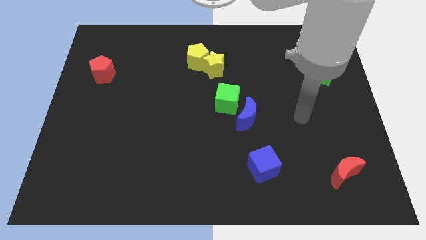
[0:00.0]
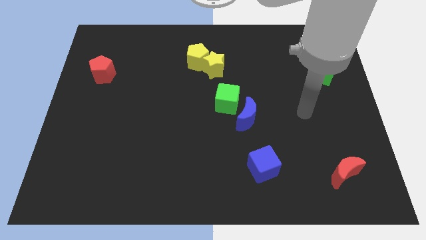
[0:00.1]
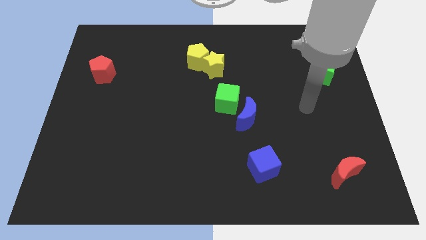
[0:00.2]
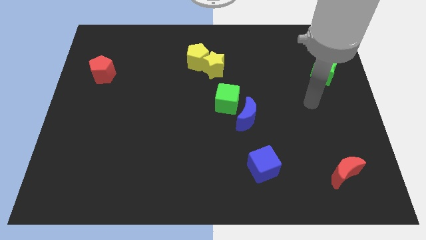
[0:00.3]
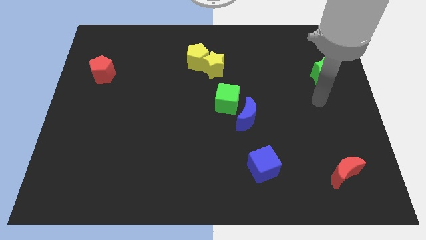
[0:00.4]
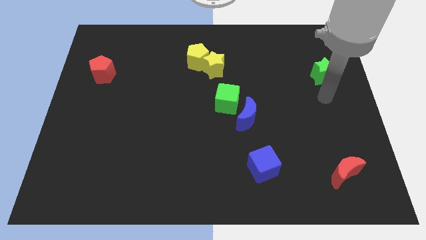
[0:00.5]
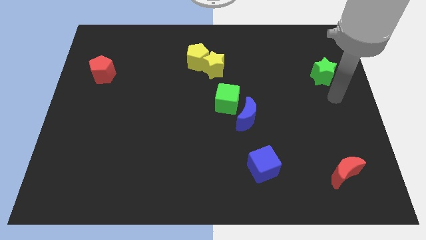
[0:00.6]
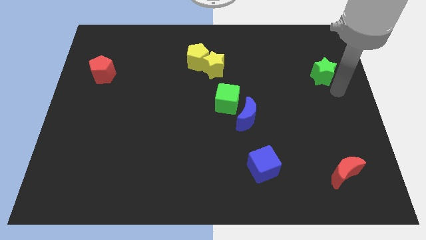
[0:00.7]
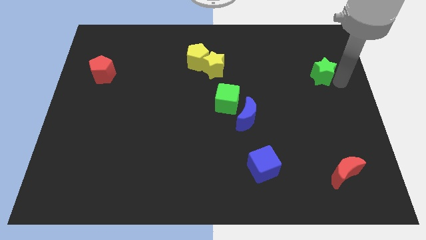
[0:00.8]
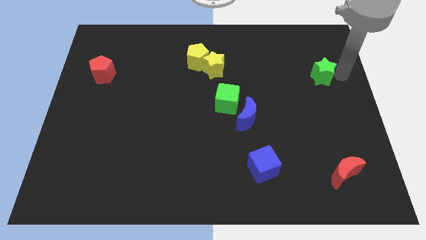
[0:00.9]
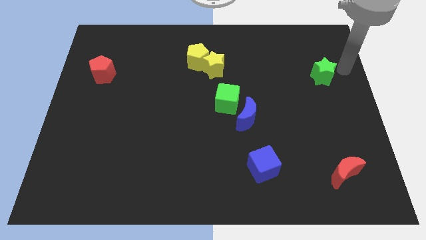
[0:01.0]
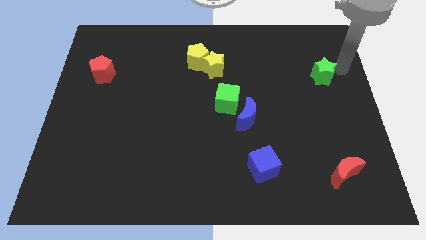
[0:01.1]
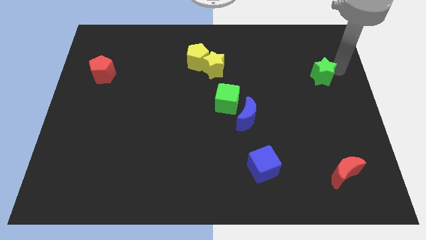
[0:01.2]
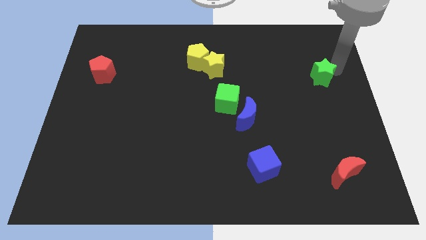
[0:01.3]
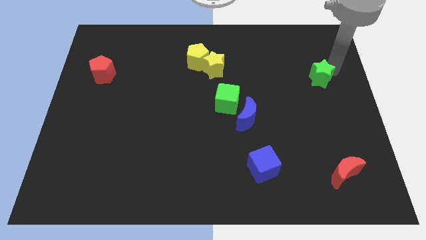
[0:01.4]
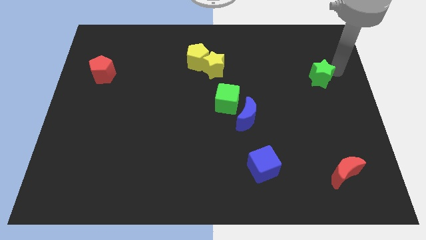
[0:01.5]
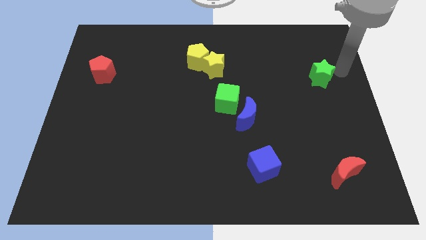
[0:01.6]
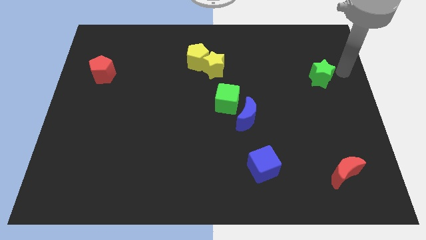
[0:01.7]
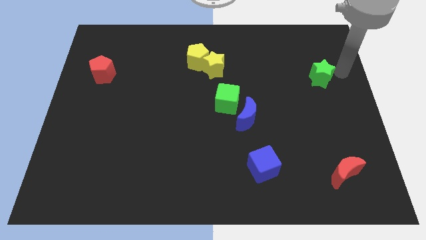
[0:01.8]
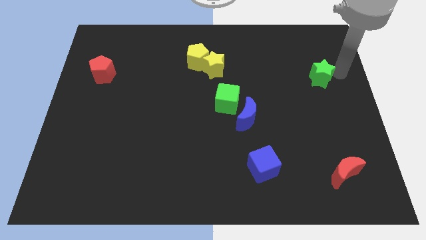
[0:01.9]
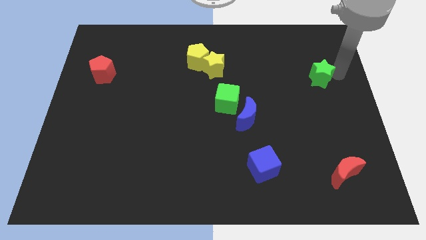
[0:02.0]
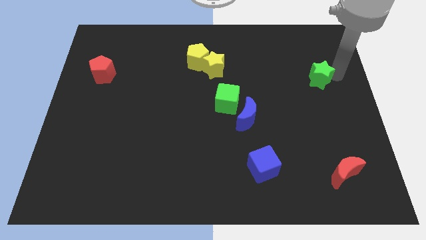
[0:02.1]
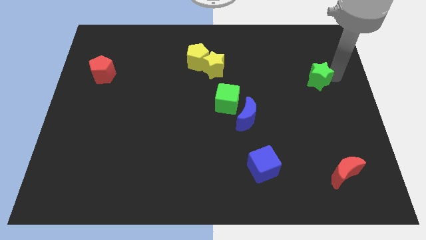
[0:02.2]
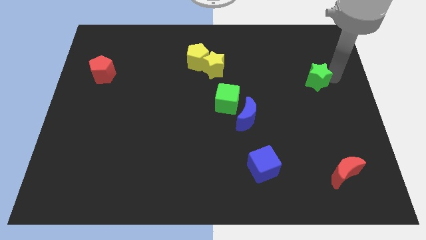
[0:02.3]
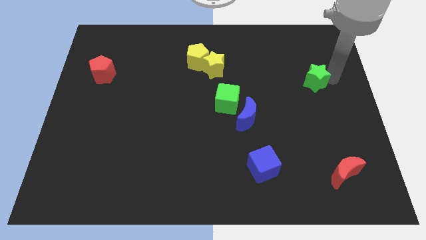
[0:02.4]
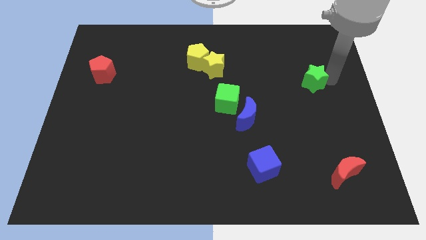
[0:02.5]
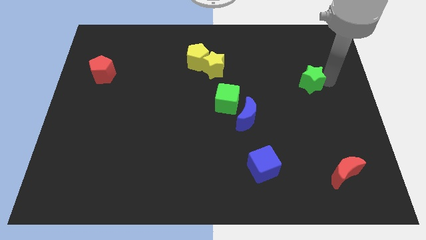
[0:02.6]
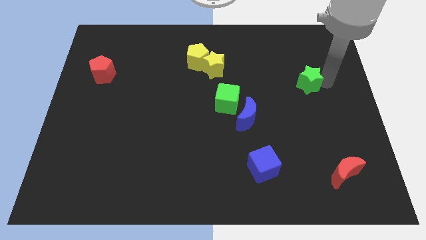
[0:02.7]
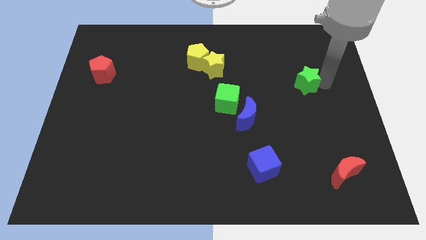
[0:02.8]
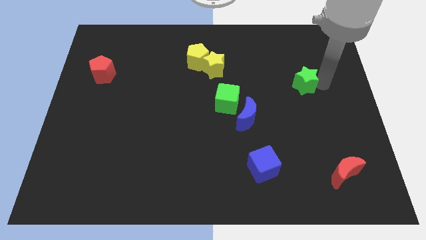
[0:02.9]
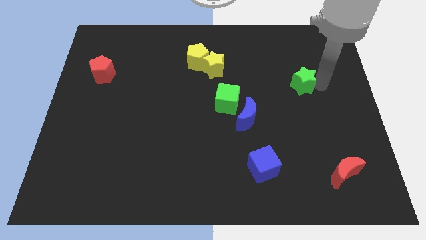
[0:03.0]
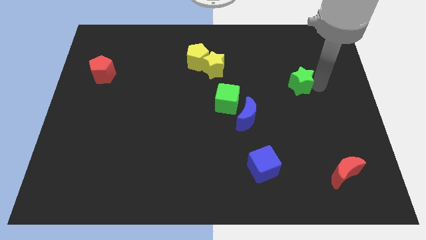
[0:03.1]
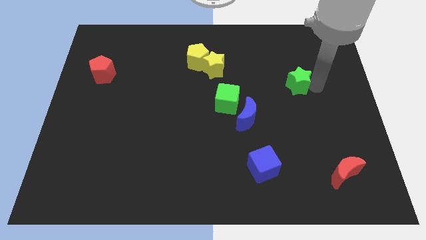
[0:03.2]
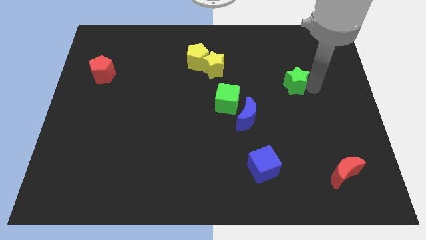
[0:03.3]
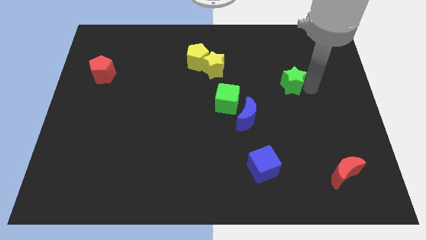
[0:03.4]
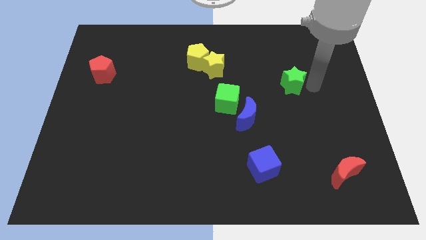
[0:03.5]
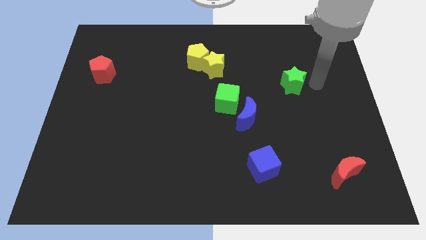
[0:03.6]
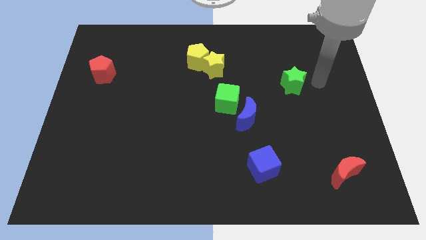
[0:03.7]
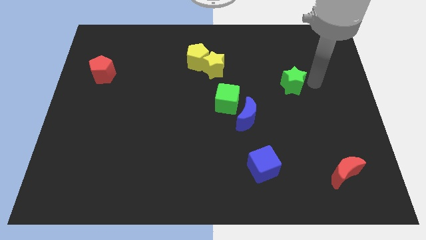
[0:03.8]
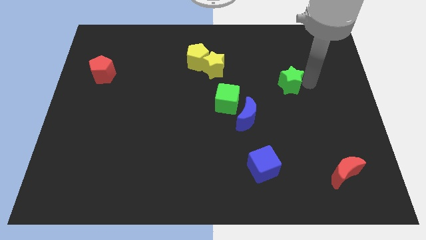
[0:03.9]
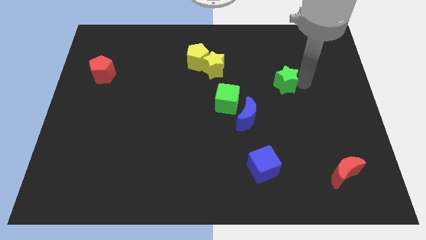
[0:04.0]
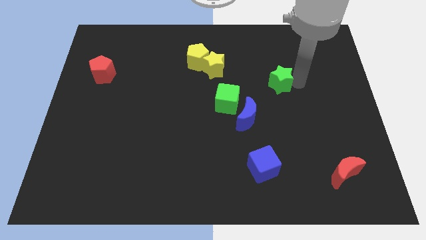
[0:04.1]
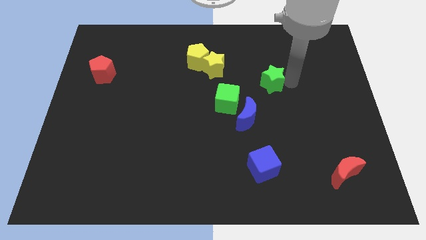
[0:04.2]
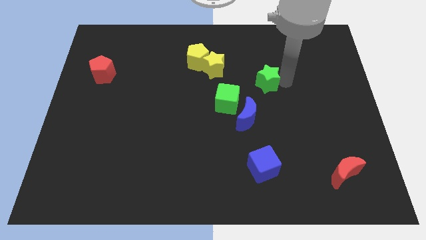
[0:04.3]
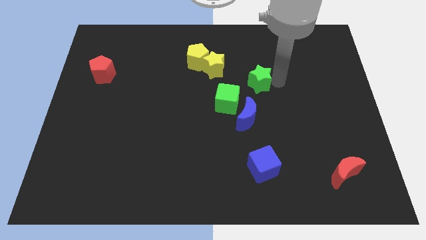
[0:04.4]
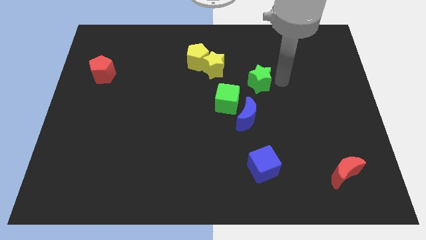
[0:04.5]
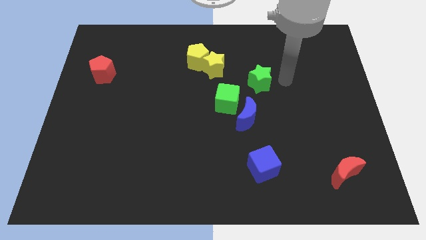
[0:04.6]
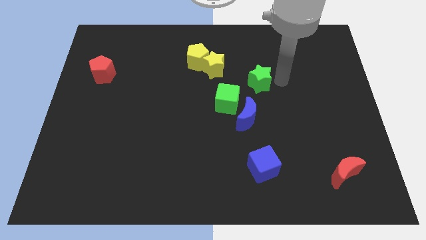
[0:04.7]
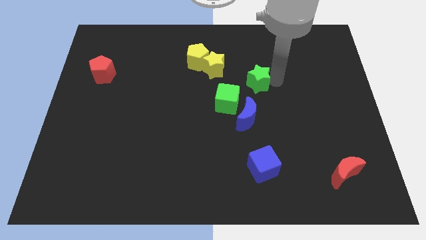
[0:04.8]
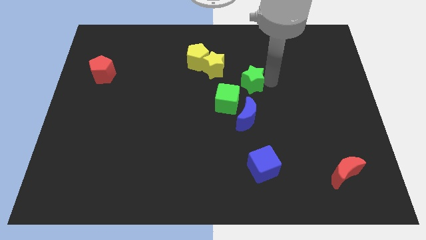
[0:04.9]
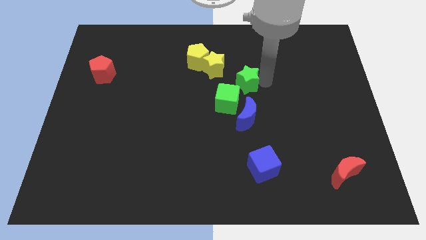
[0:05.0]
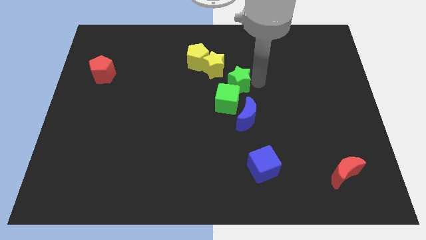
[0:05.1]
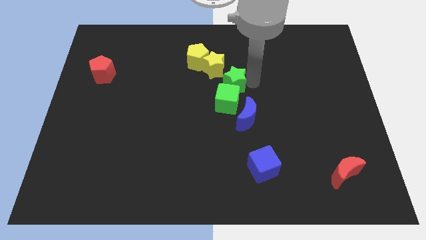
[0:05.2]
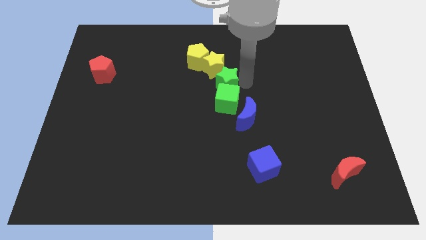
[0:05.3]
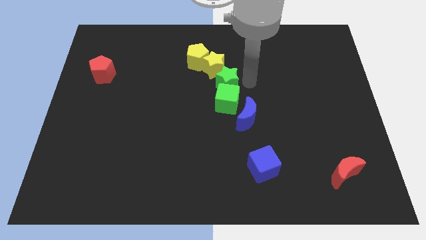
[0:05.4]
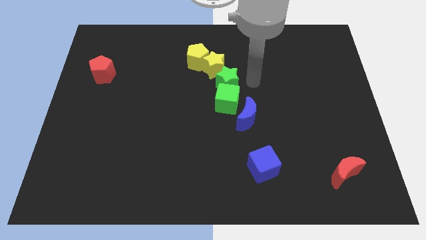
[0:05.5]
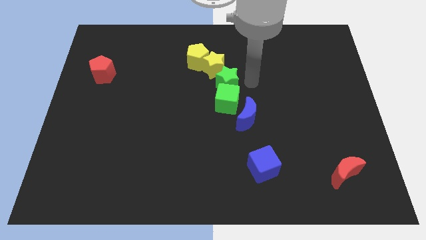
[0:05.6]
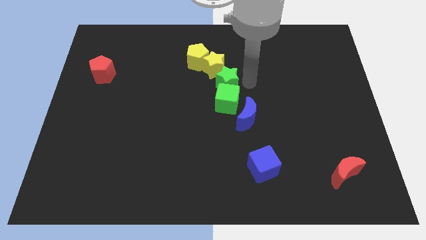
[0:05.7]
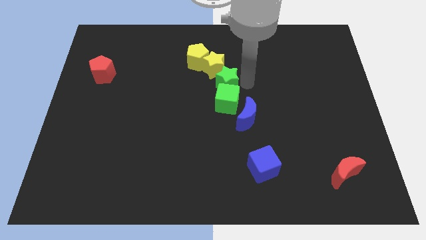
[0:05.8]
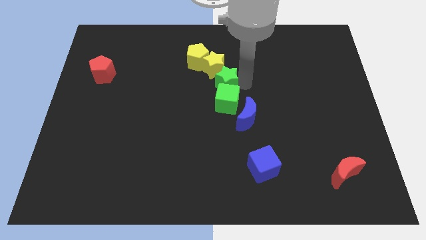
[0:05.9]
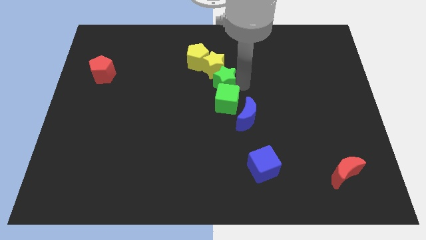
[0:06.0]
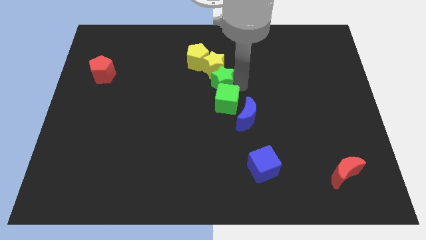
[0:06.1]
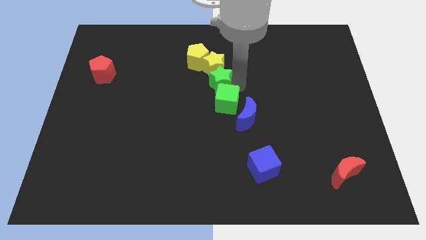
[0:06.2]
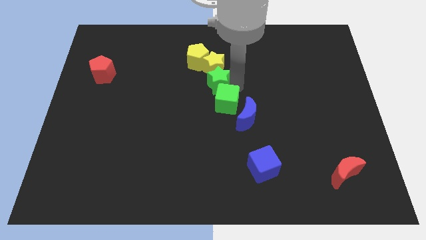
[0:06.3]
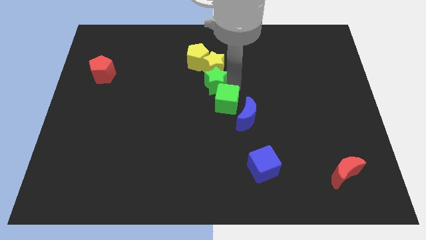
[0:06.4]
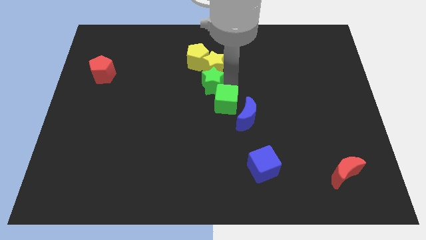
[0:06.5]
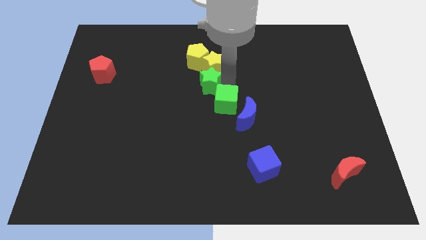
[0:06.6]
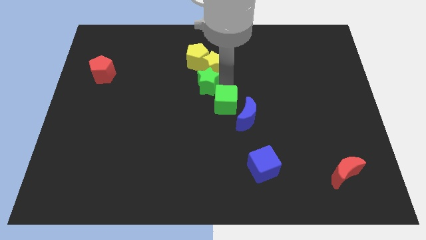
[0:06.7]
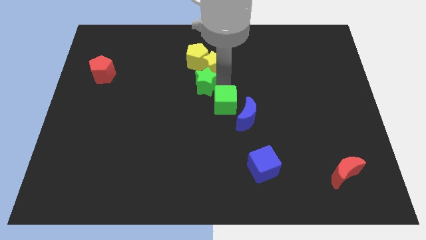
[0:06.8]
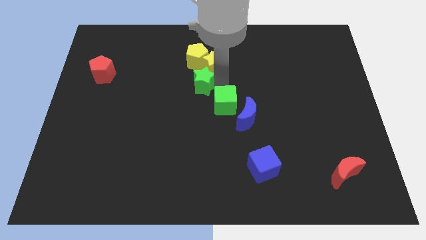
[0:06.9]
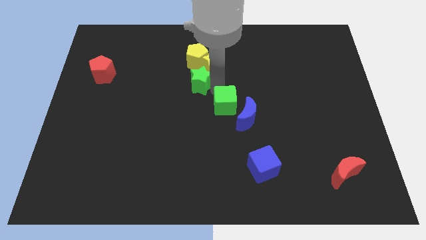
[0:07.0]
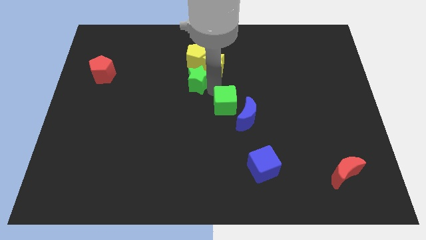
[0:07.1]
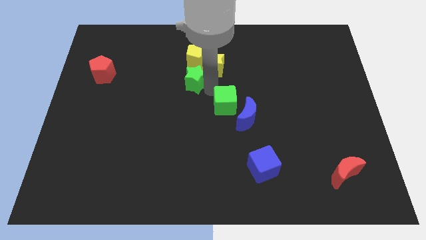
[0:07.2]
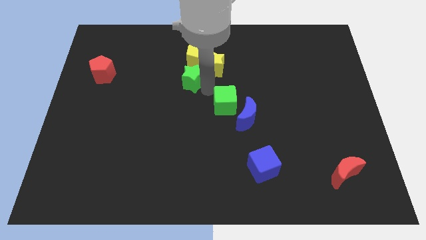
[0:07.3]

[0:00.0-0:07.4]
move the green star to the bottom left of the yellow pentagon
